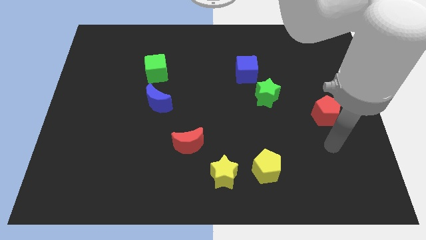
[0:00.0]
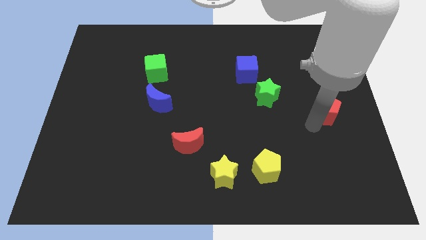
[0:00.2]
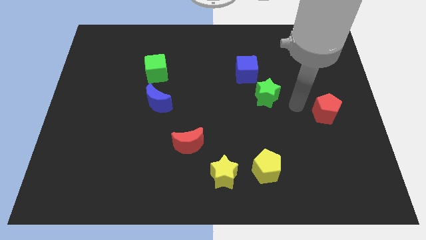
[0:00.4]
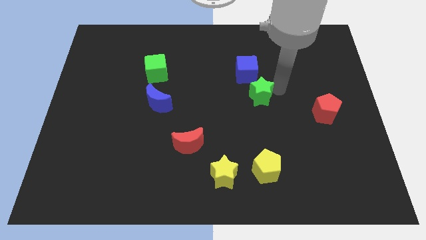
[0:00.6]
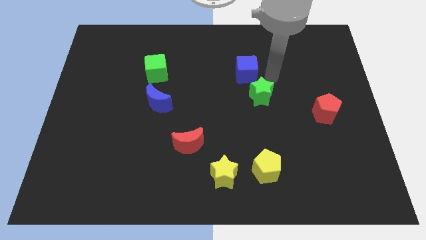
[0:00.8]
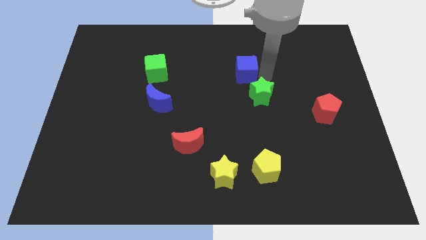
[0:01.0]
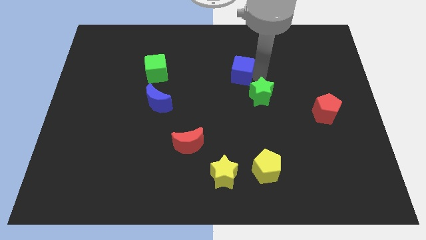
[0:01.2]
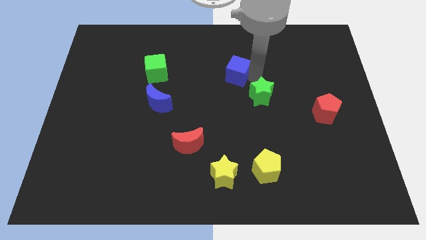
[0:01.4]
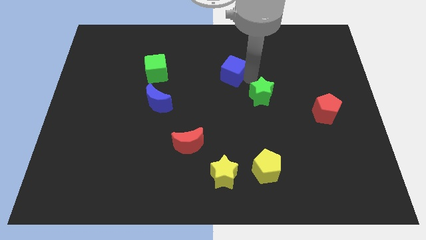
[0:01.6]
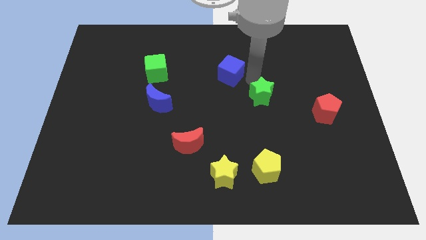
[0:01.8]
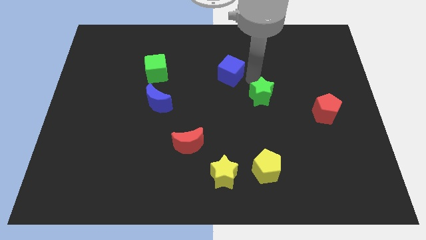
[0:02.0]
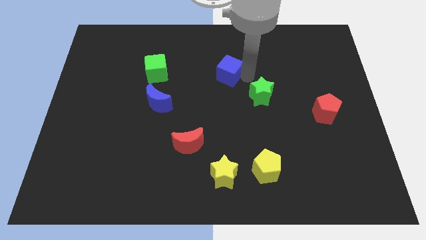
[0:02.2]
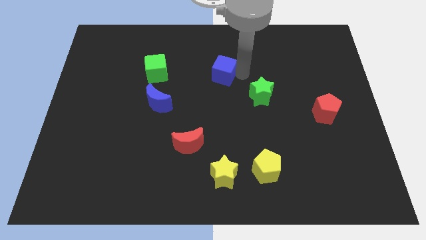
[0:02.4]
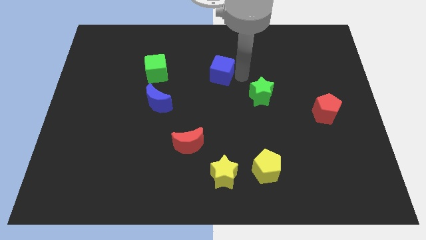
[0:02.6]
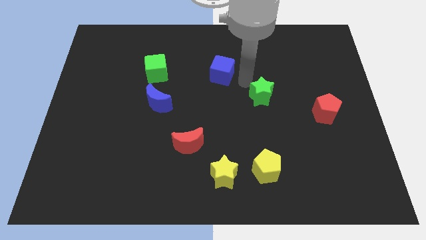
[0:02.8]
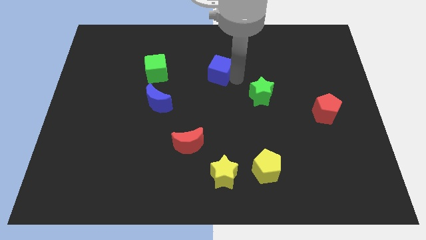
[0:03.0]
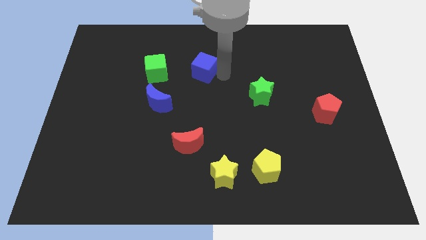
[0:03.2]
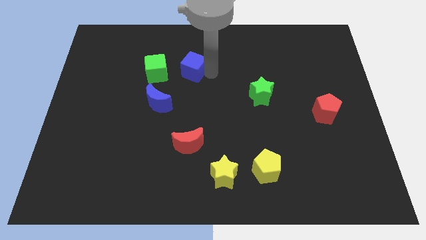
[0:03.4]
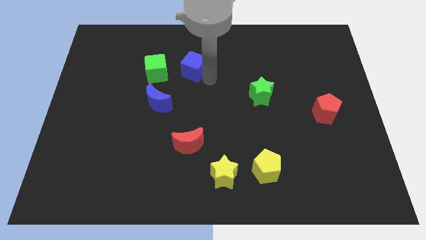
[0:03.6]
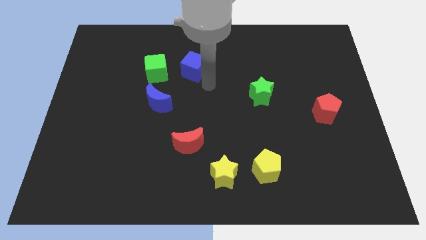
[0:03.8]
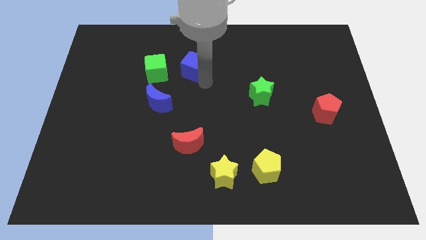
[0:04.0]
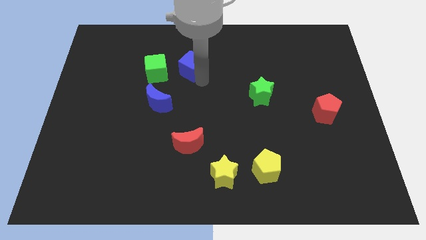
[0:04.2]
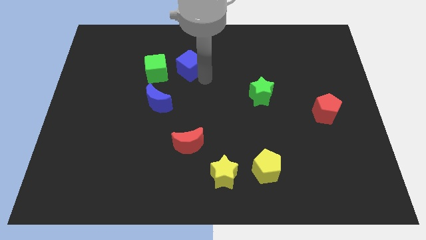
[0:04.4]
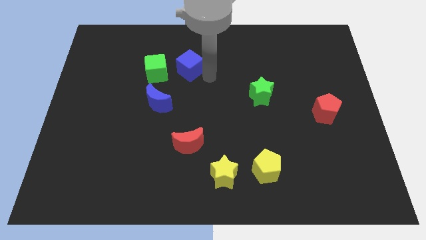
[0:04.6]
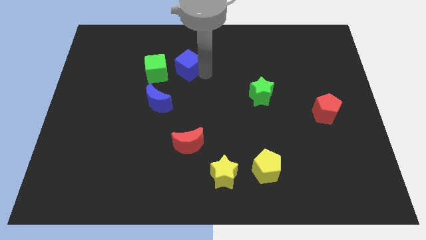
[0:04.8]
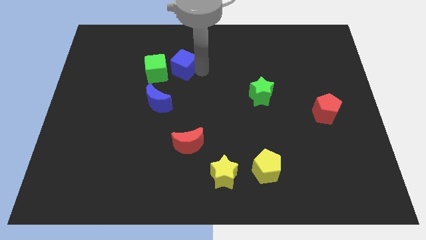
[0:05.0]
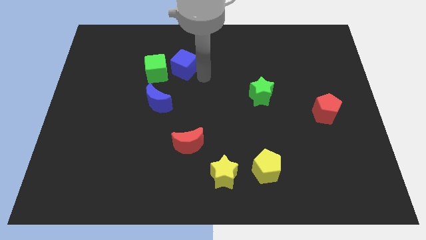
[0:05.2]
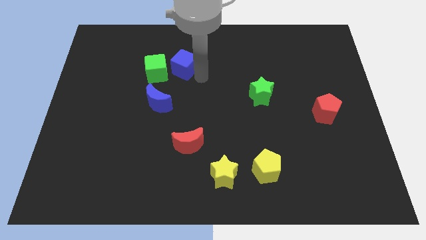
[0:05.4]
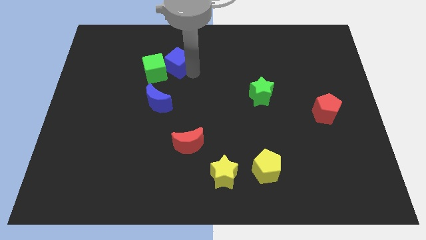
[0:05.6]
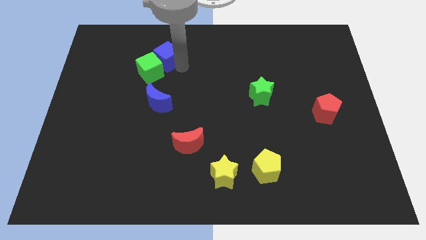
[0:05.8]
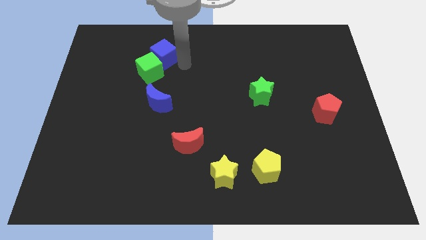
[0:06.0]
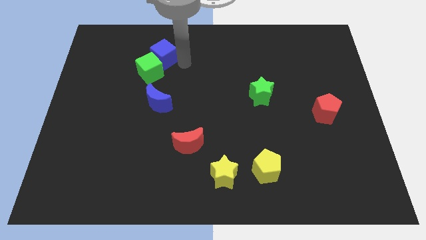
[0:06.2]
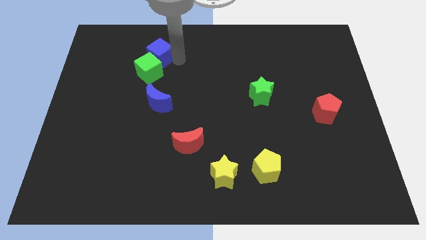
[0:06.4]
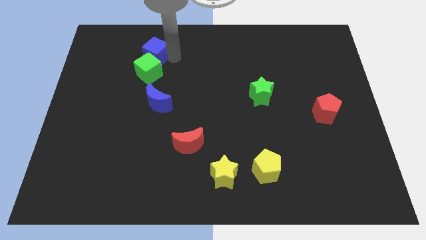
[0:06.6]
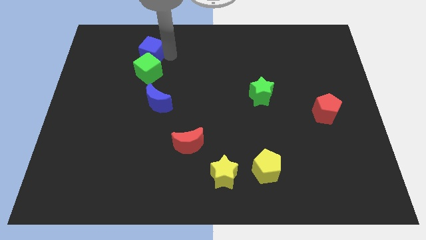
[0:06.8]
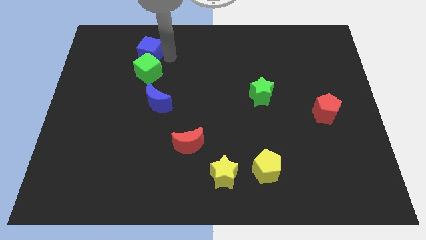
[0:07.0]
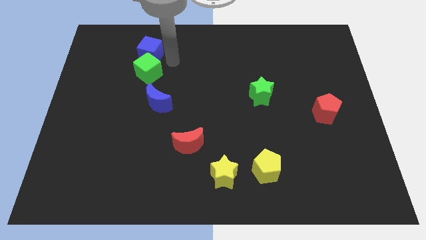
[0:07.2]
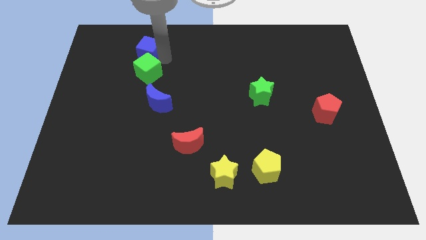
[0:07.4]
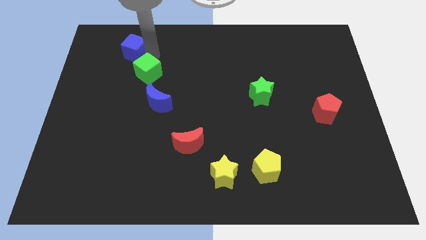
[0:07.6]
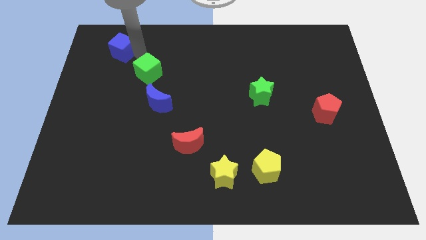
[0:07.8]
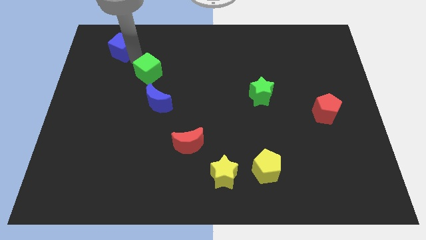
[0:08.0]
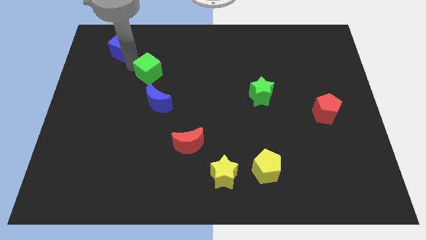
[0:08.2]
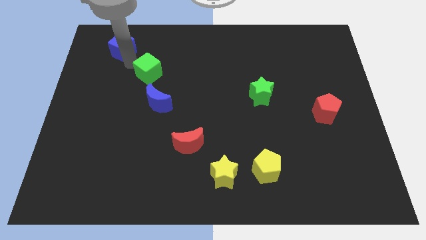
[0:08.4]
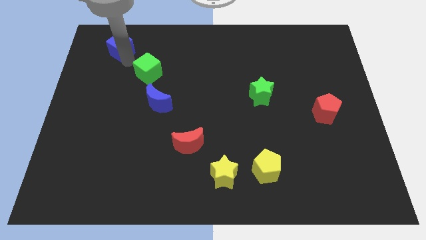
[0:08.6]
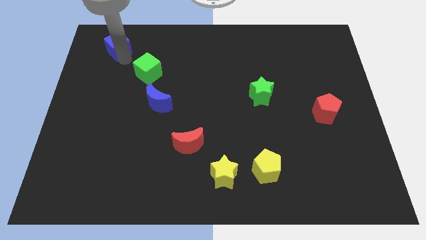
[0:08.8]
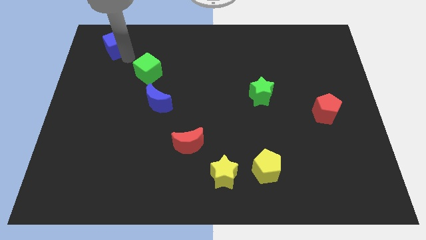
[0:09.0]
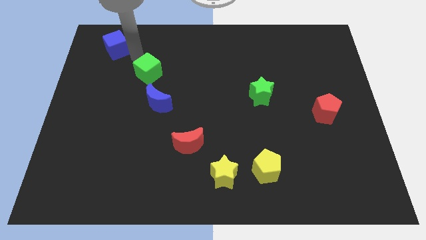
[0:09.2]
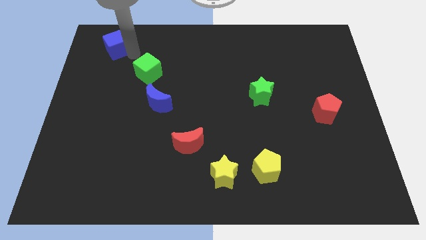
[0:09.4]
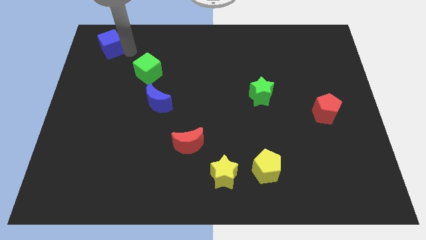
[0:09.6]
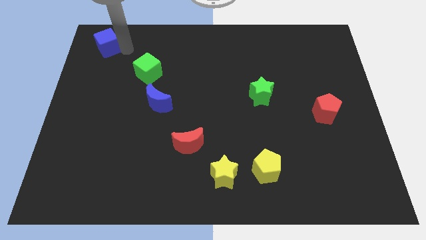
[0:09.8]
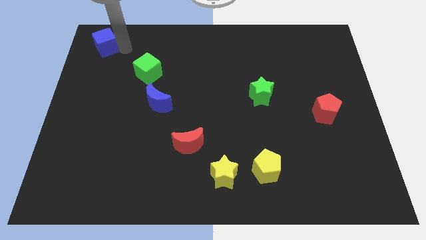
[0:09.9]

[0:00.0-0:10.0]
push the blue cube to the top left

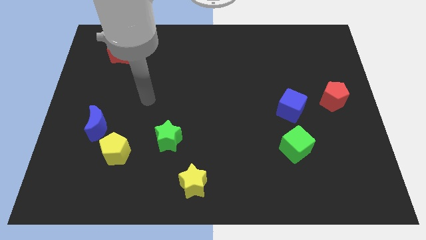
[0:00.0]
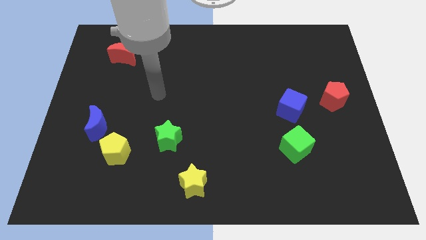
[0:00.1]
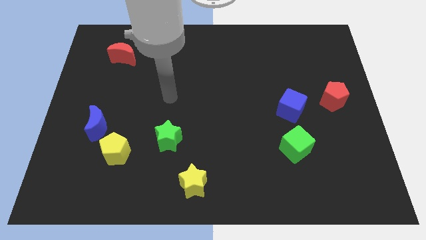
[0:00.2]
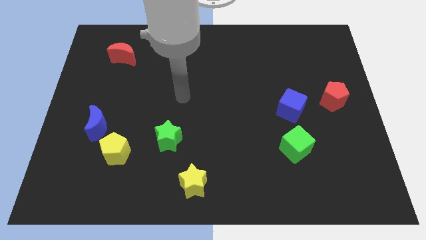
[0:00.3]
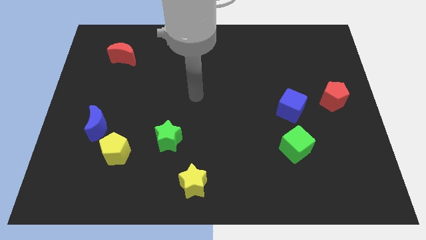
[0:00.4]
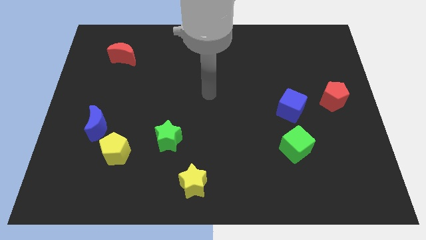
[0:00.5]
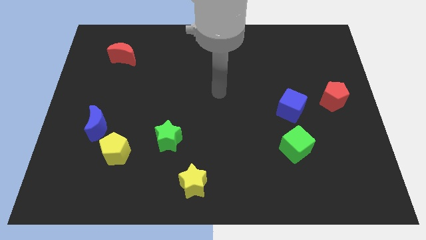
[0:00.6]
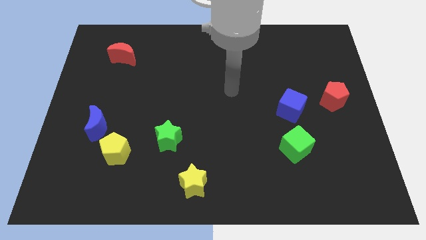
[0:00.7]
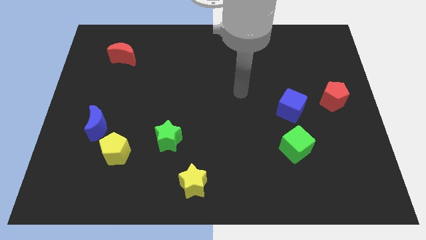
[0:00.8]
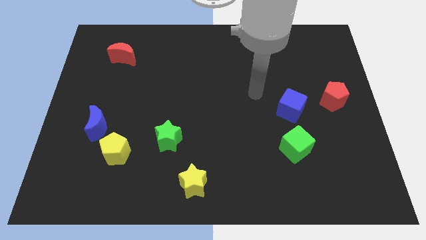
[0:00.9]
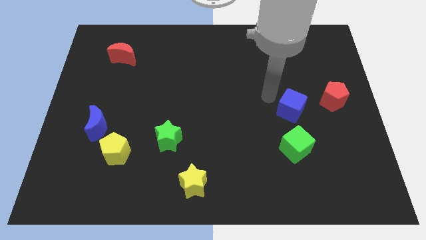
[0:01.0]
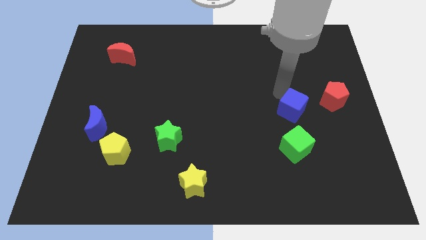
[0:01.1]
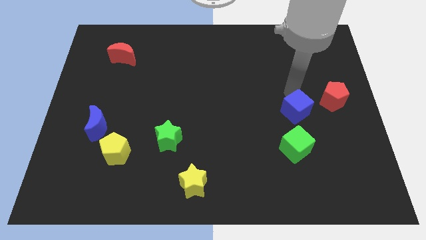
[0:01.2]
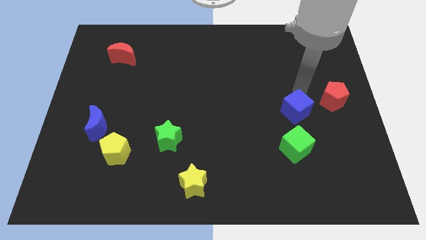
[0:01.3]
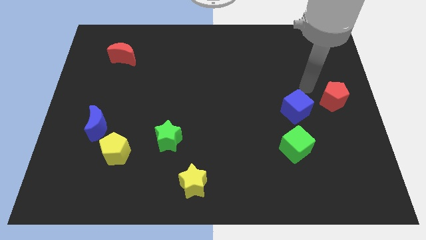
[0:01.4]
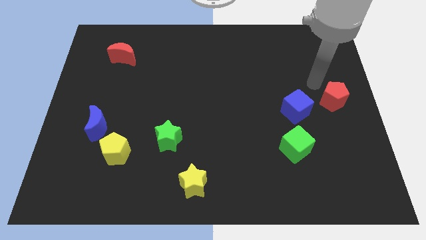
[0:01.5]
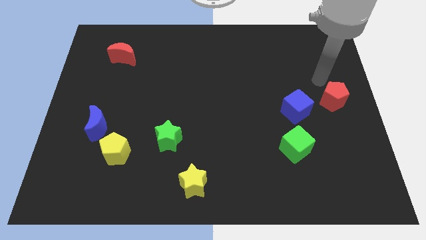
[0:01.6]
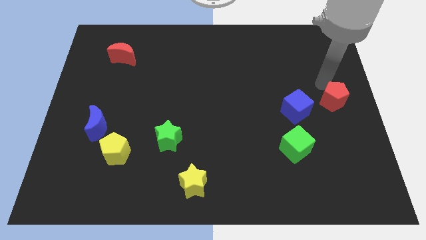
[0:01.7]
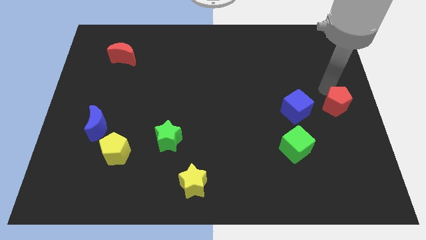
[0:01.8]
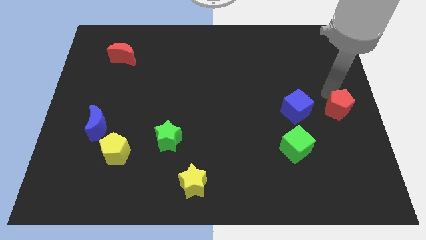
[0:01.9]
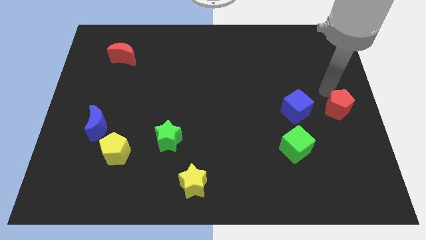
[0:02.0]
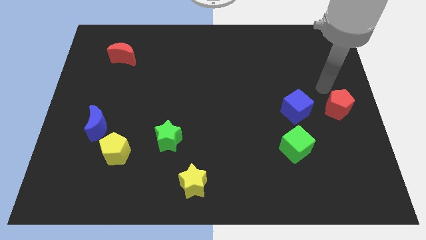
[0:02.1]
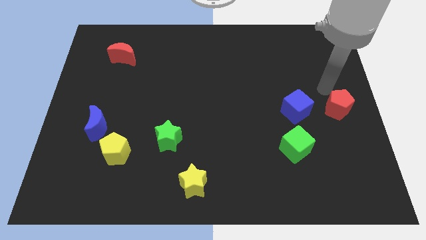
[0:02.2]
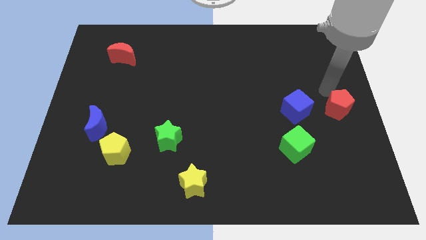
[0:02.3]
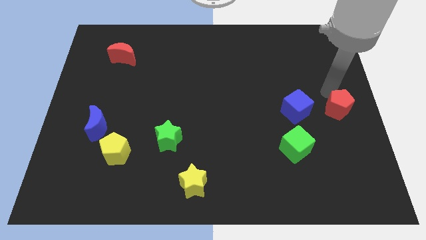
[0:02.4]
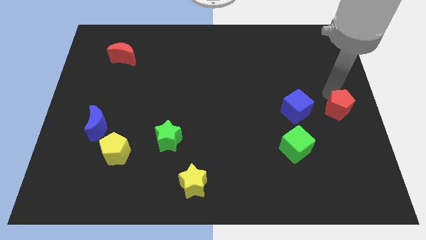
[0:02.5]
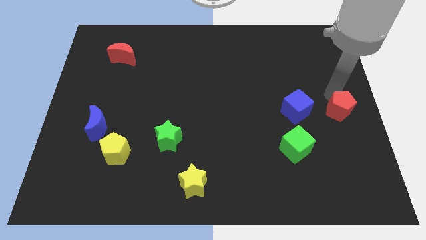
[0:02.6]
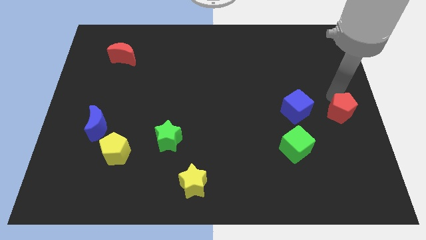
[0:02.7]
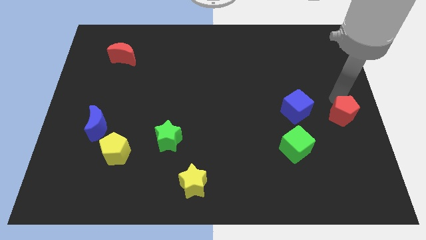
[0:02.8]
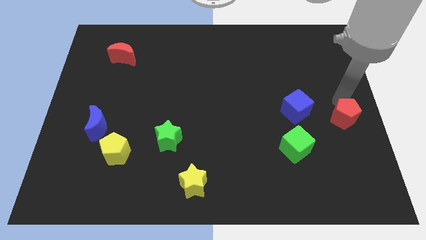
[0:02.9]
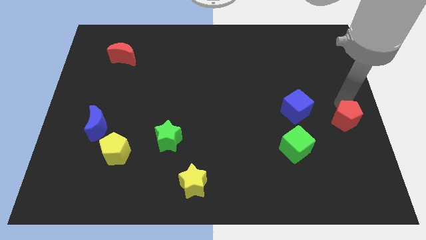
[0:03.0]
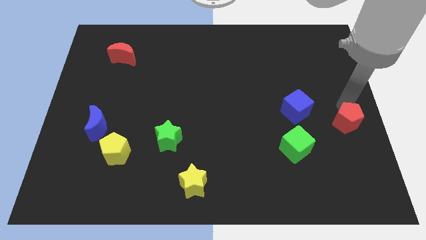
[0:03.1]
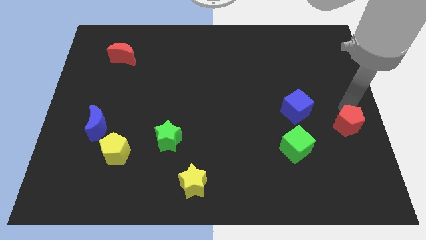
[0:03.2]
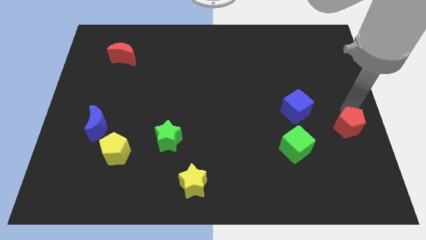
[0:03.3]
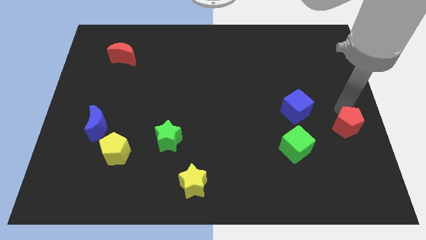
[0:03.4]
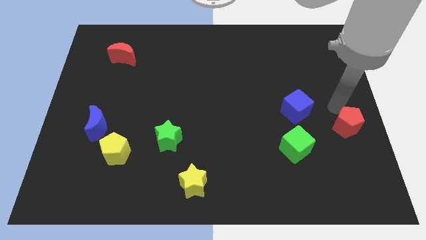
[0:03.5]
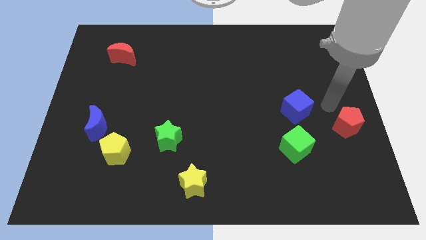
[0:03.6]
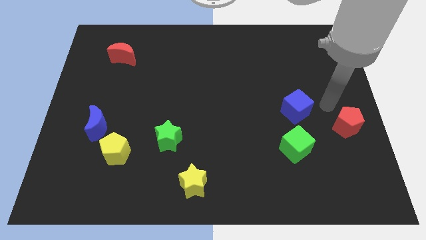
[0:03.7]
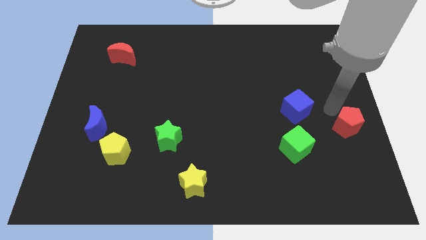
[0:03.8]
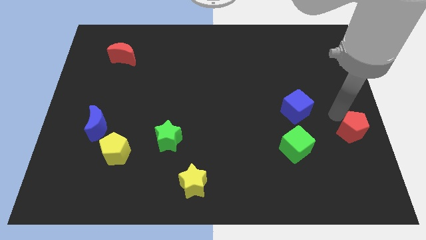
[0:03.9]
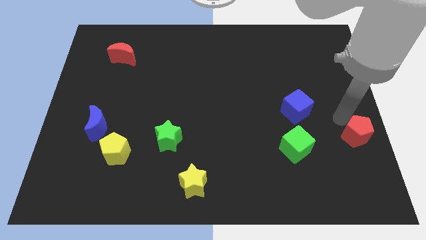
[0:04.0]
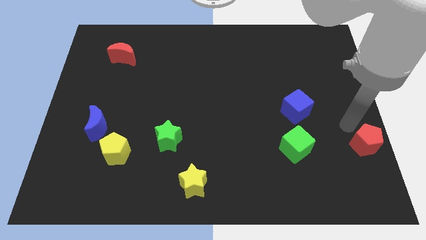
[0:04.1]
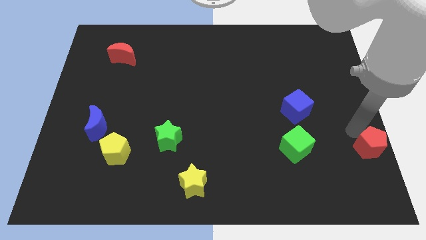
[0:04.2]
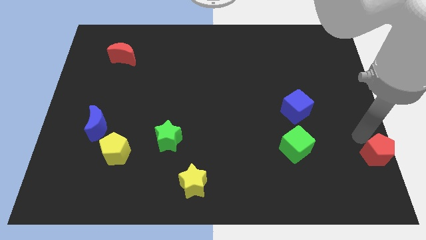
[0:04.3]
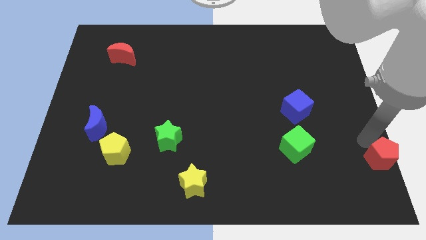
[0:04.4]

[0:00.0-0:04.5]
move the red pentagon to the lower right corner
